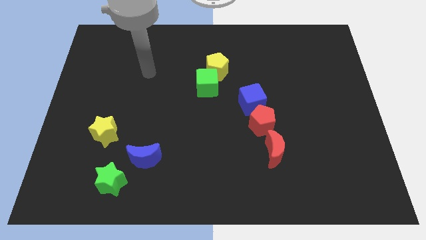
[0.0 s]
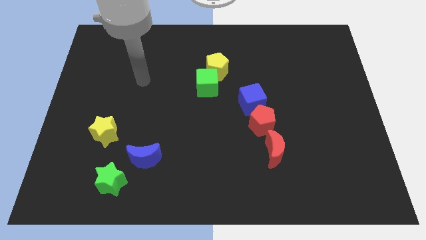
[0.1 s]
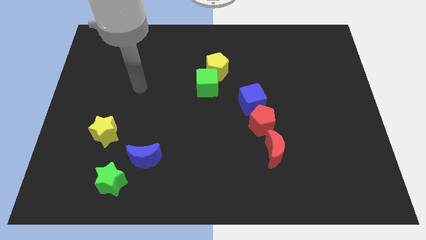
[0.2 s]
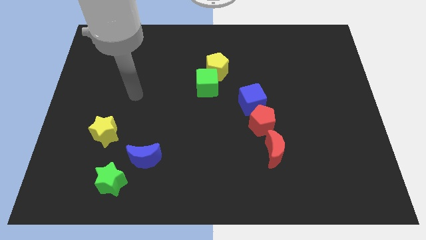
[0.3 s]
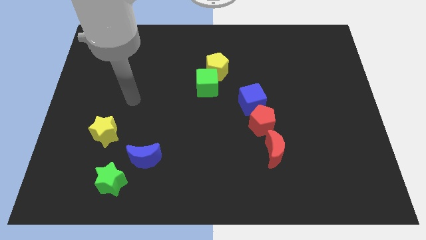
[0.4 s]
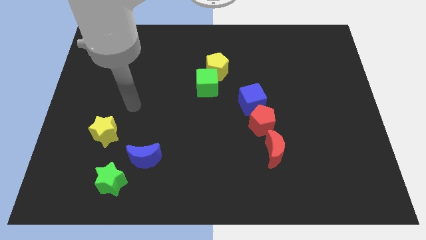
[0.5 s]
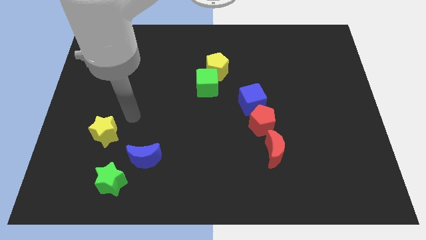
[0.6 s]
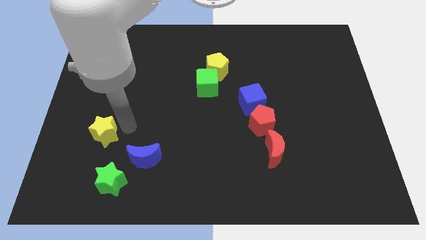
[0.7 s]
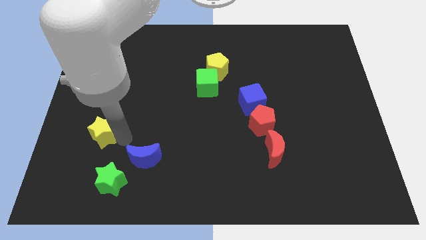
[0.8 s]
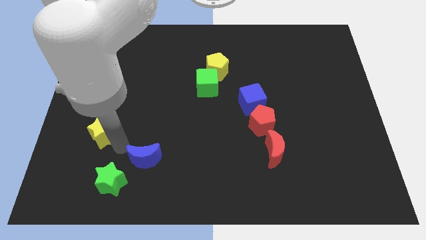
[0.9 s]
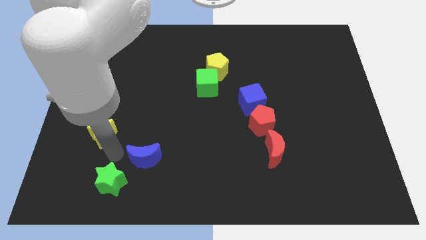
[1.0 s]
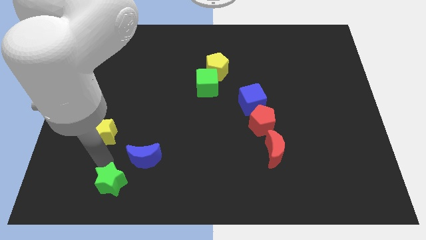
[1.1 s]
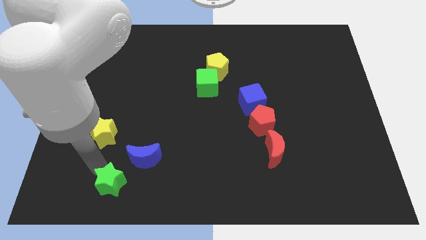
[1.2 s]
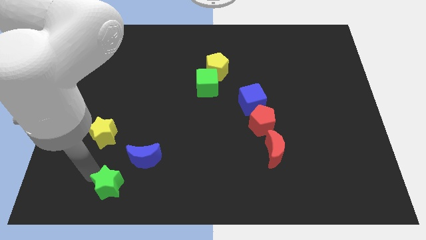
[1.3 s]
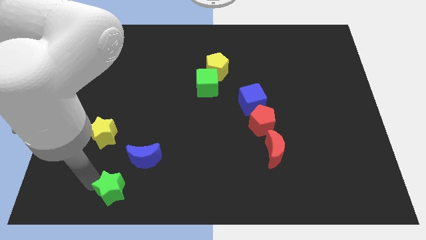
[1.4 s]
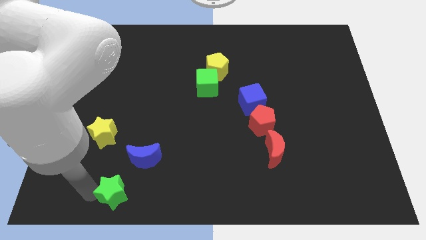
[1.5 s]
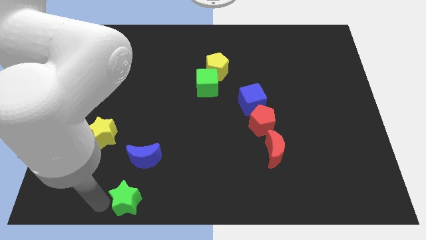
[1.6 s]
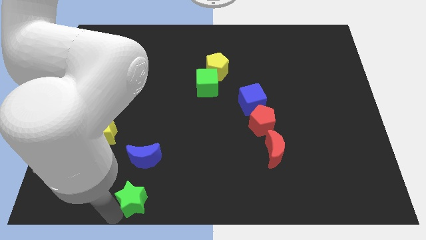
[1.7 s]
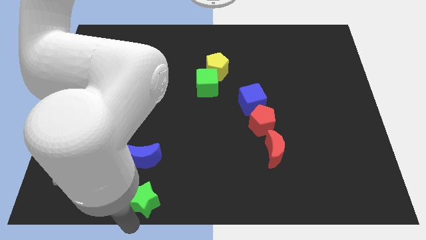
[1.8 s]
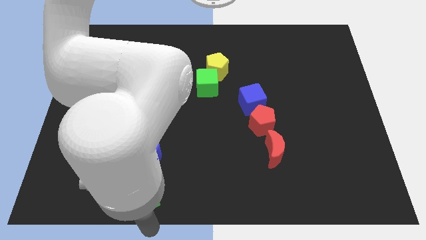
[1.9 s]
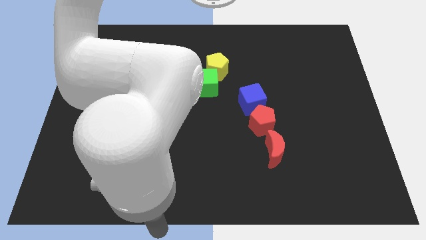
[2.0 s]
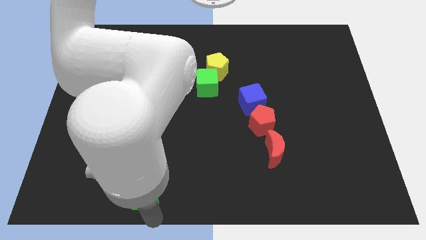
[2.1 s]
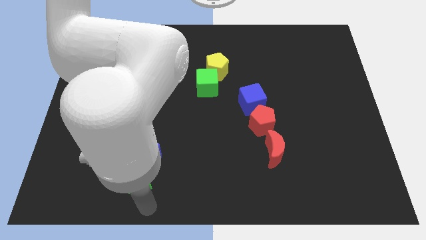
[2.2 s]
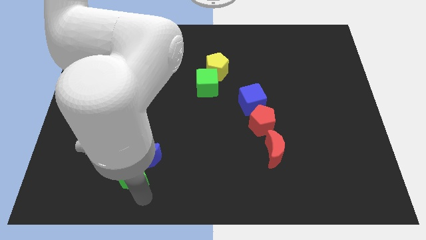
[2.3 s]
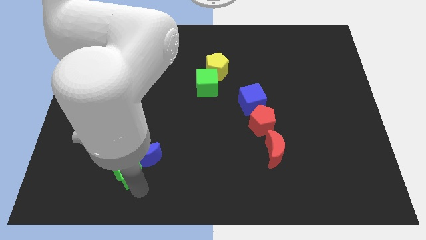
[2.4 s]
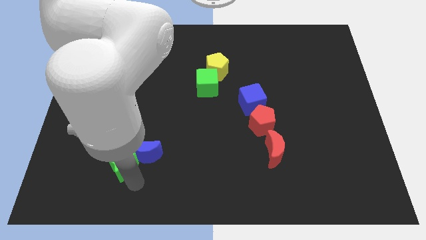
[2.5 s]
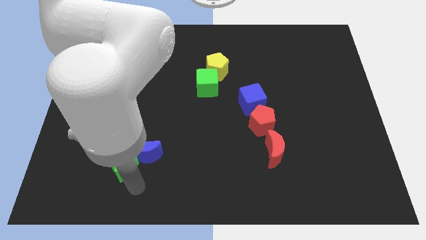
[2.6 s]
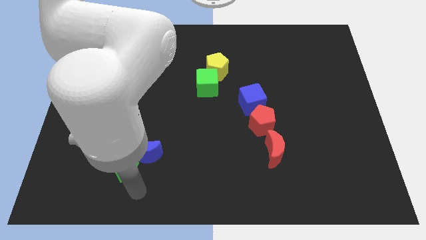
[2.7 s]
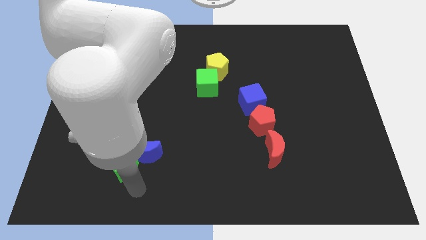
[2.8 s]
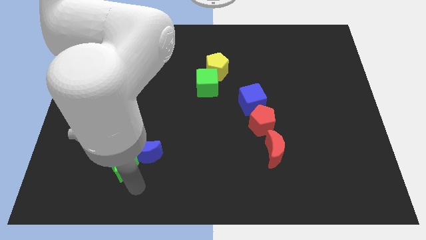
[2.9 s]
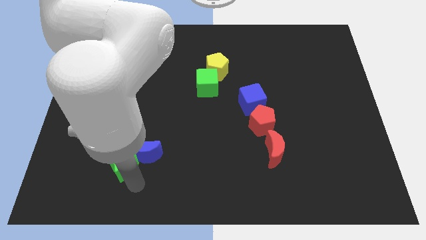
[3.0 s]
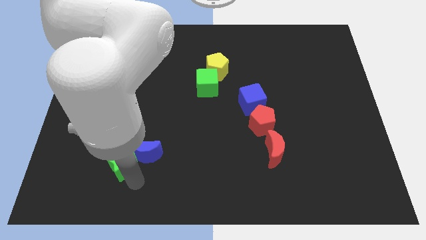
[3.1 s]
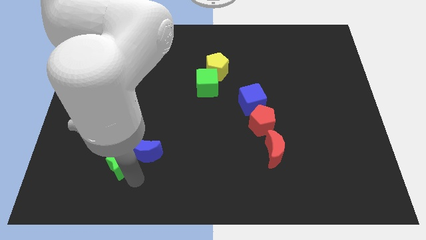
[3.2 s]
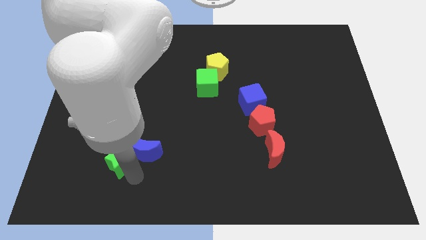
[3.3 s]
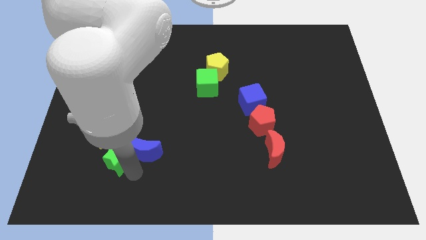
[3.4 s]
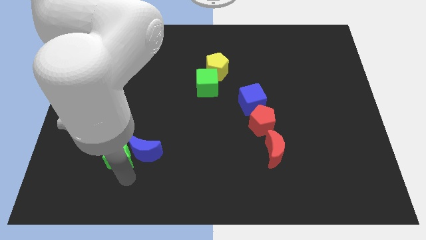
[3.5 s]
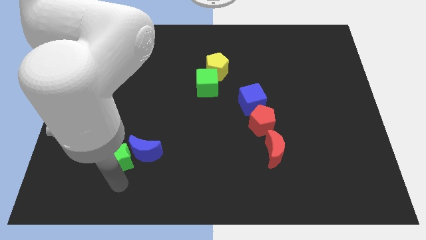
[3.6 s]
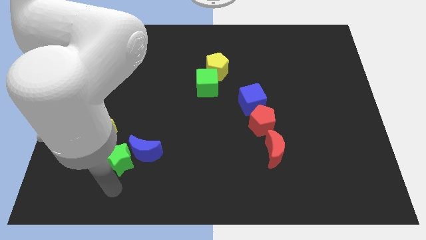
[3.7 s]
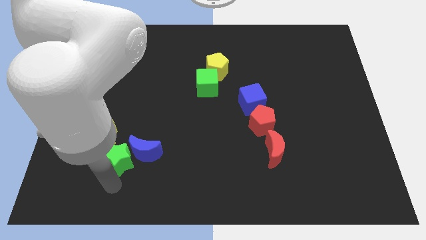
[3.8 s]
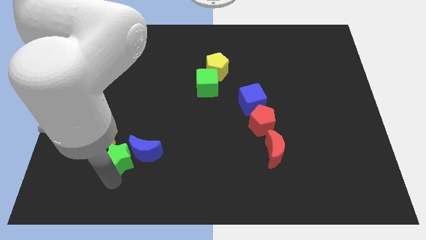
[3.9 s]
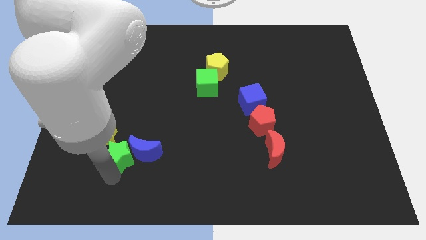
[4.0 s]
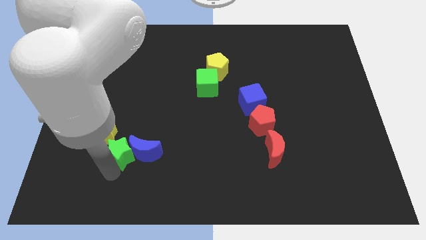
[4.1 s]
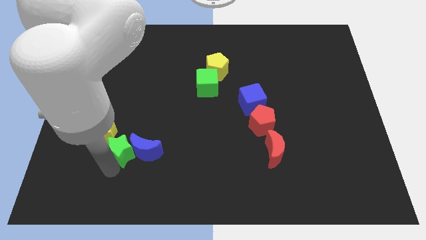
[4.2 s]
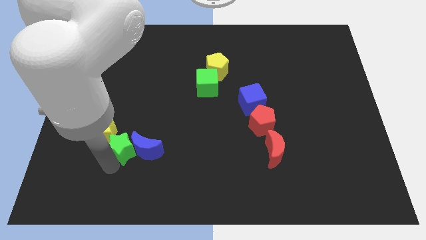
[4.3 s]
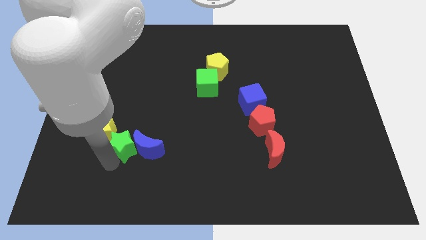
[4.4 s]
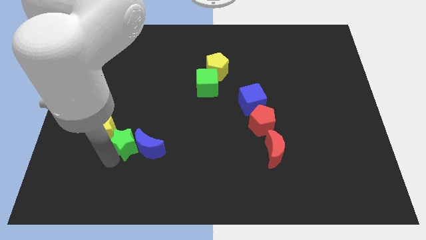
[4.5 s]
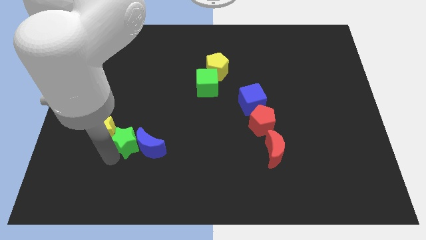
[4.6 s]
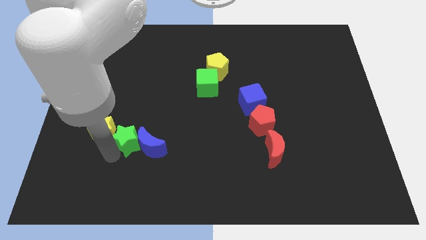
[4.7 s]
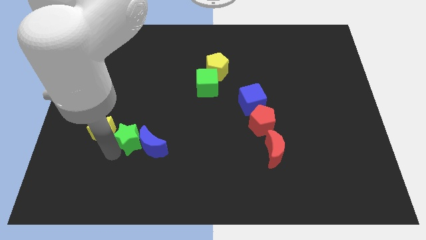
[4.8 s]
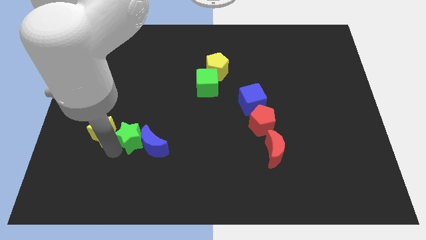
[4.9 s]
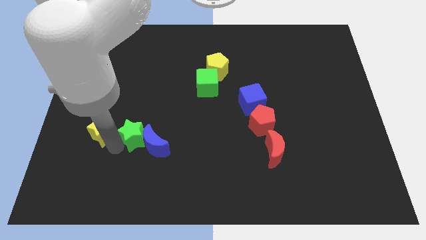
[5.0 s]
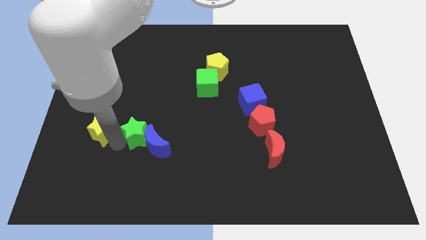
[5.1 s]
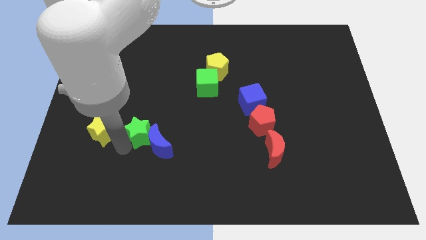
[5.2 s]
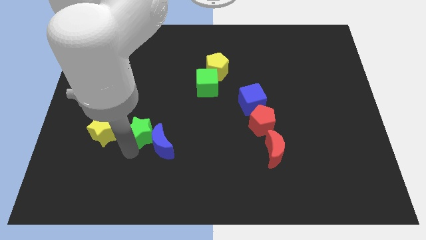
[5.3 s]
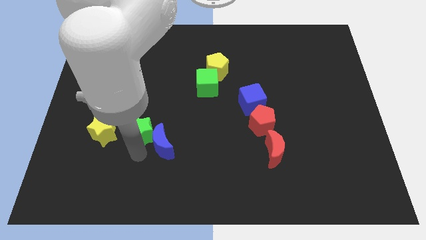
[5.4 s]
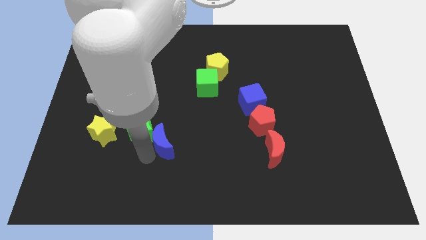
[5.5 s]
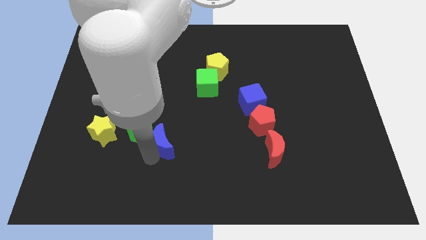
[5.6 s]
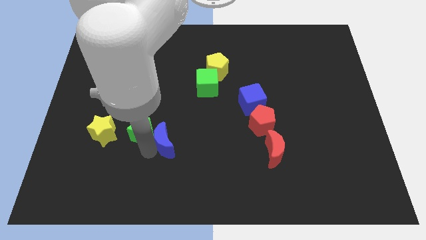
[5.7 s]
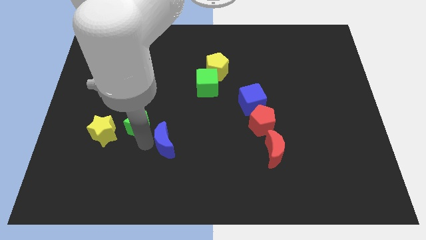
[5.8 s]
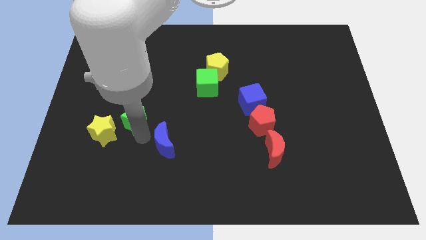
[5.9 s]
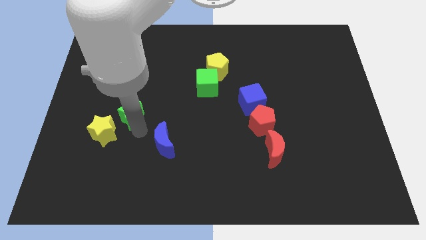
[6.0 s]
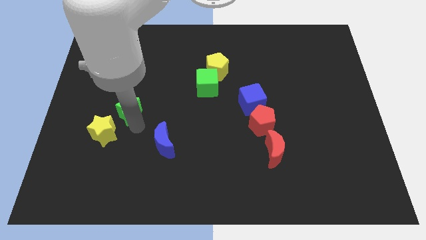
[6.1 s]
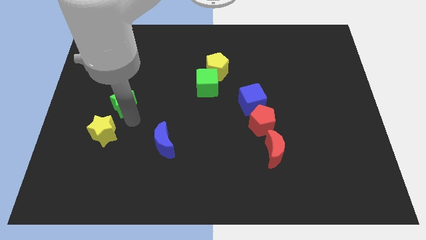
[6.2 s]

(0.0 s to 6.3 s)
push the green star up

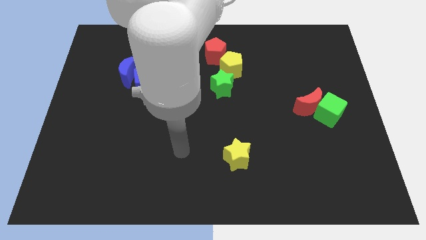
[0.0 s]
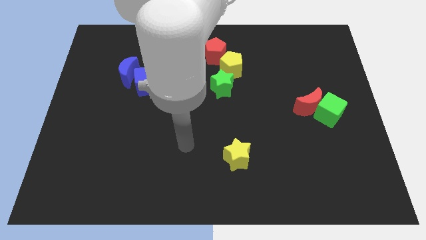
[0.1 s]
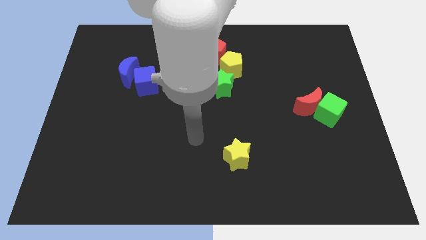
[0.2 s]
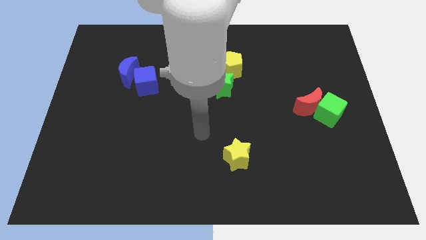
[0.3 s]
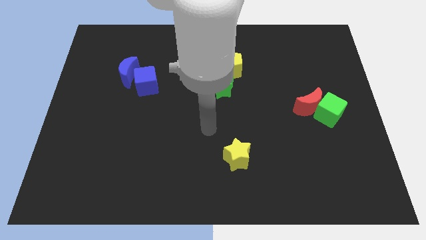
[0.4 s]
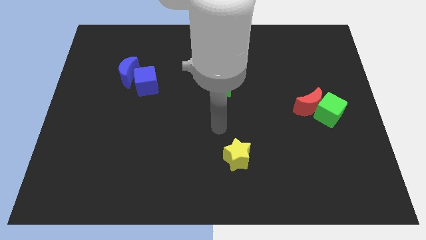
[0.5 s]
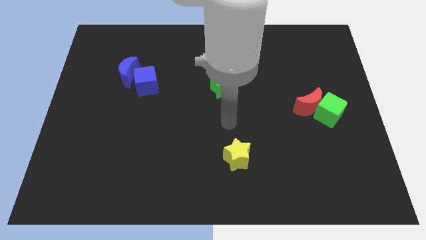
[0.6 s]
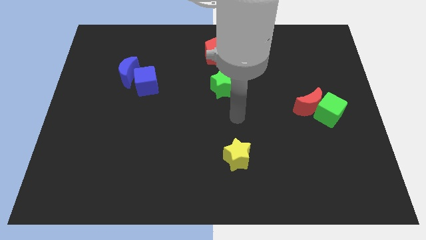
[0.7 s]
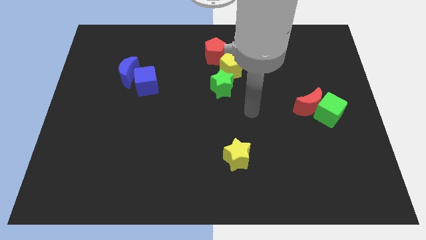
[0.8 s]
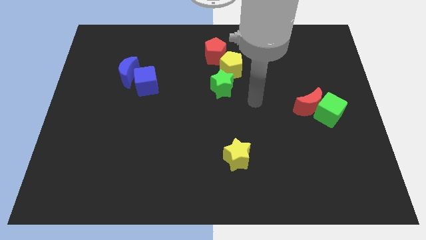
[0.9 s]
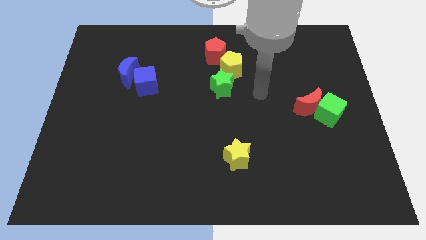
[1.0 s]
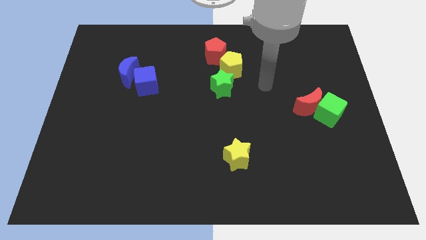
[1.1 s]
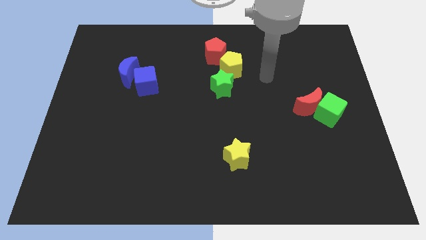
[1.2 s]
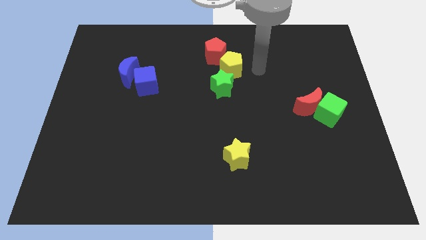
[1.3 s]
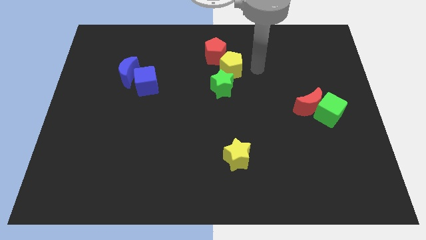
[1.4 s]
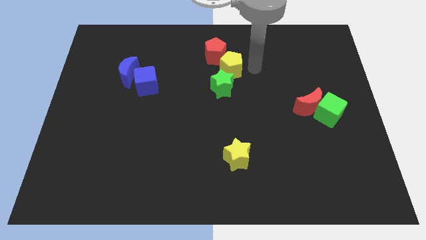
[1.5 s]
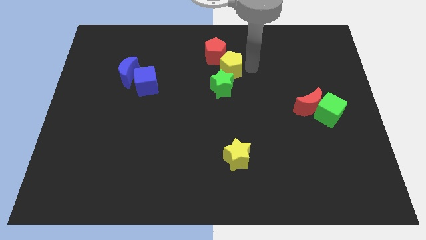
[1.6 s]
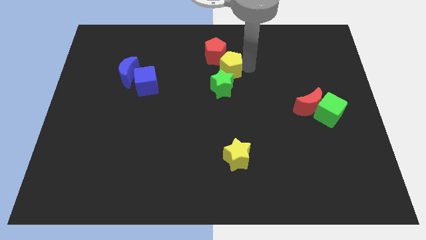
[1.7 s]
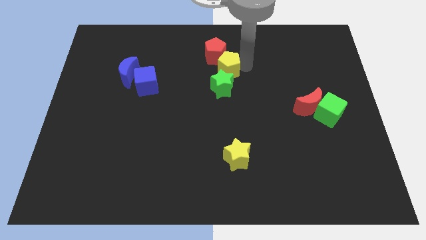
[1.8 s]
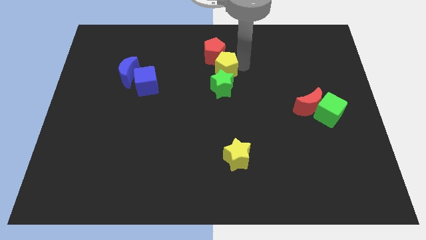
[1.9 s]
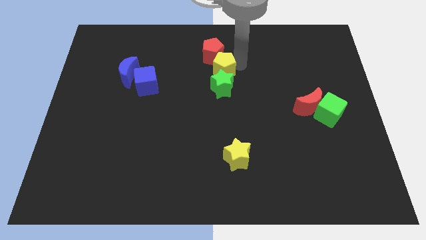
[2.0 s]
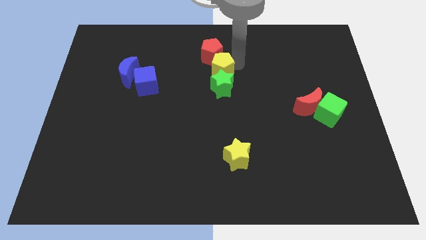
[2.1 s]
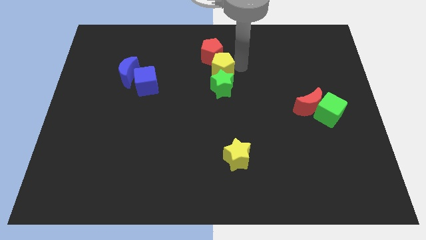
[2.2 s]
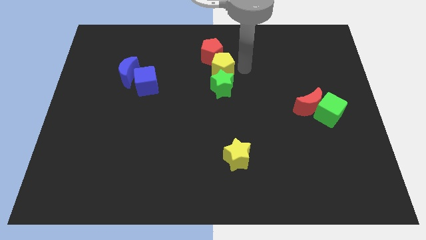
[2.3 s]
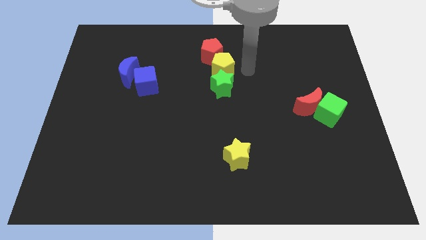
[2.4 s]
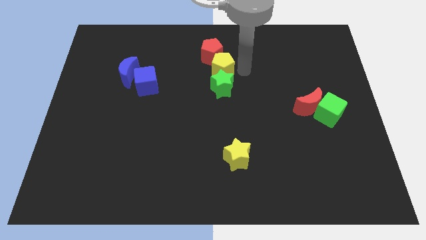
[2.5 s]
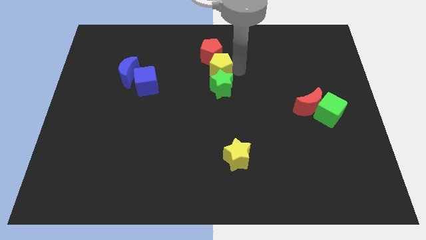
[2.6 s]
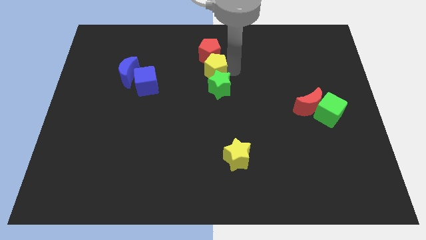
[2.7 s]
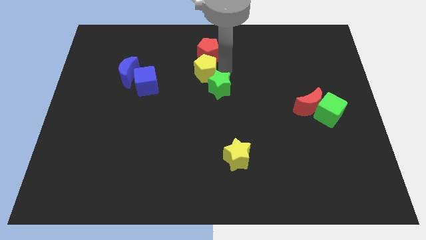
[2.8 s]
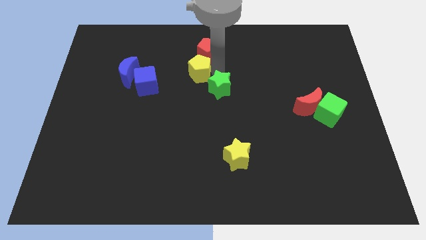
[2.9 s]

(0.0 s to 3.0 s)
push the yellow pentagon to the left a little bit
